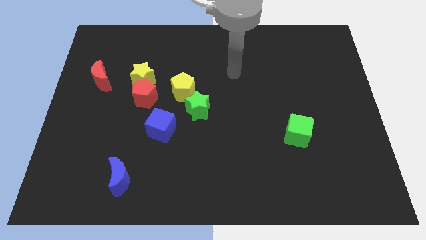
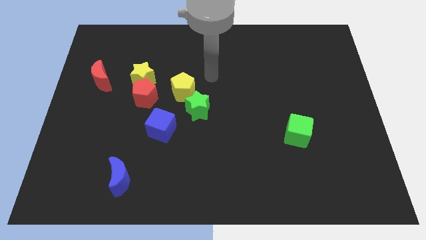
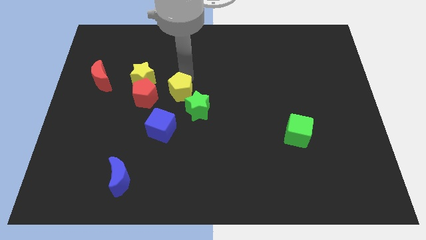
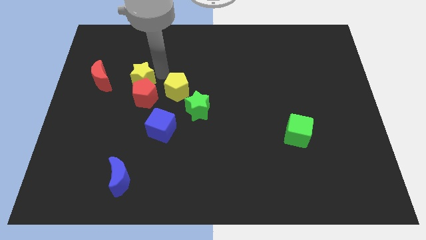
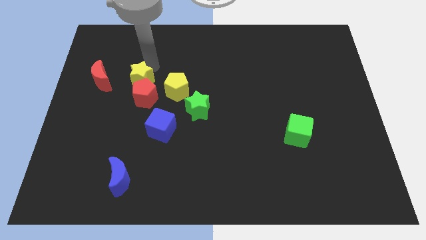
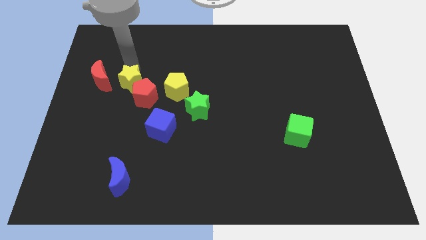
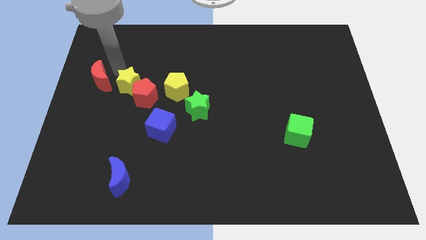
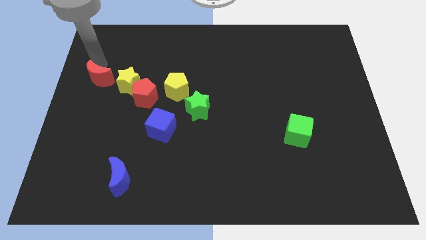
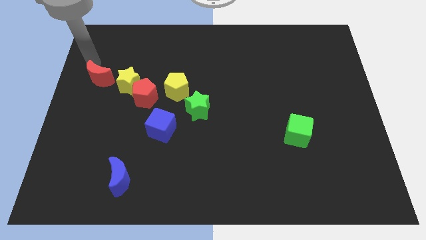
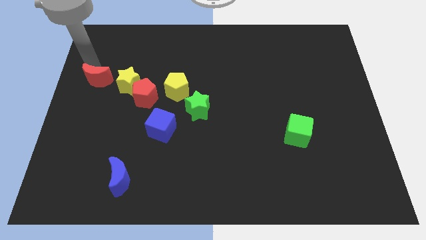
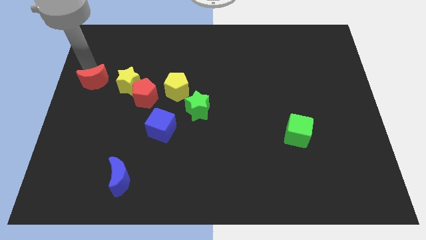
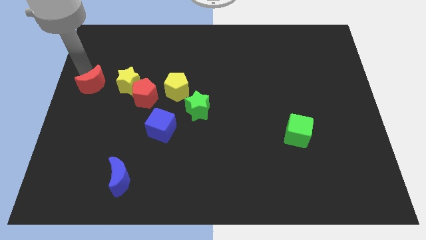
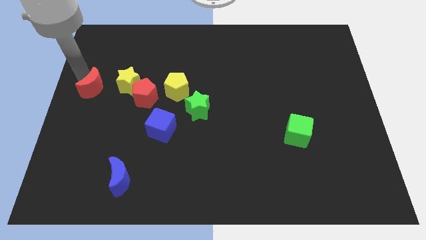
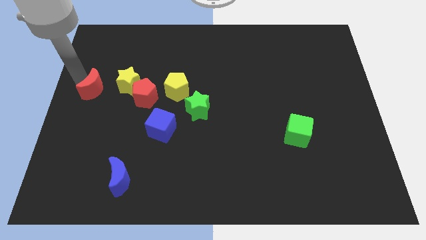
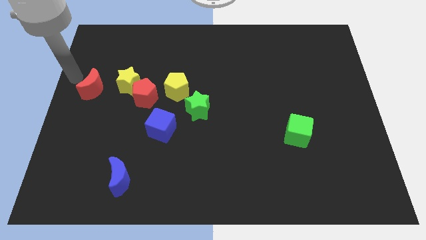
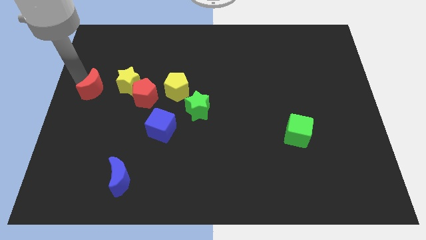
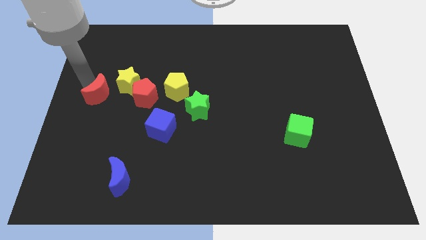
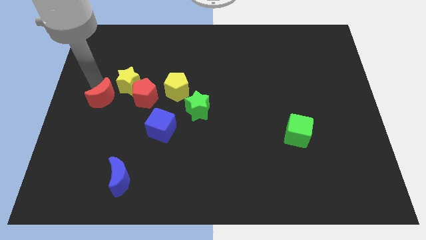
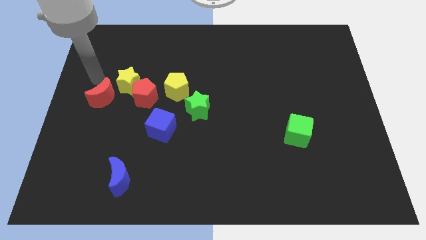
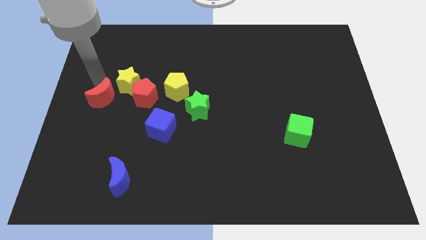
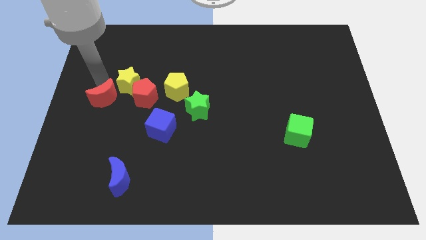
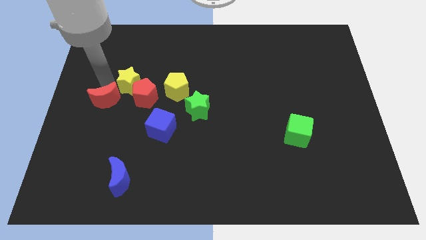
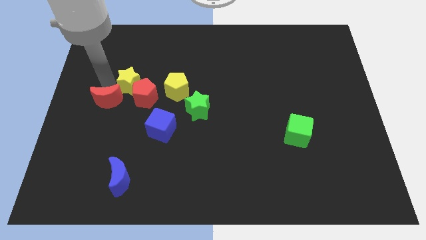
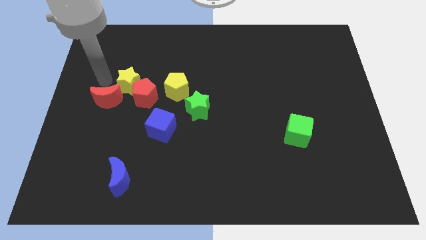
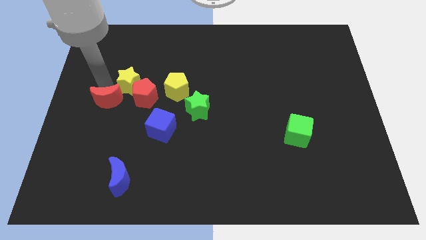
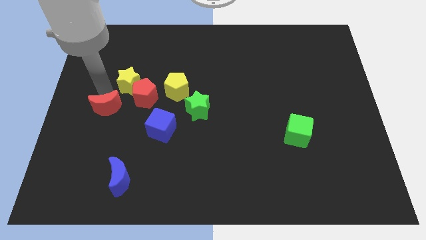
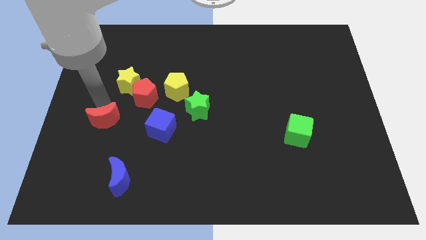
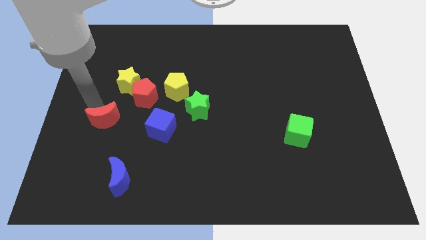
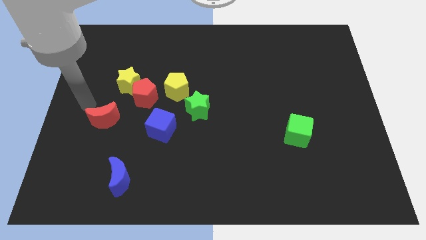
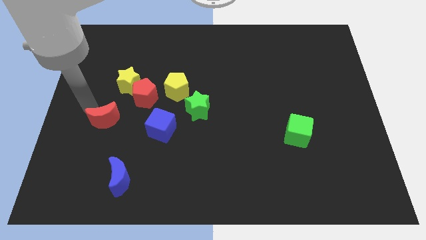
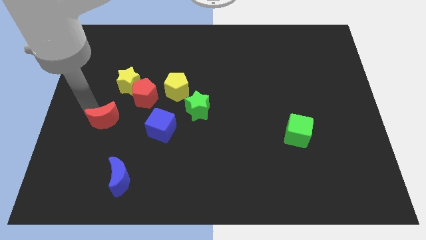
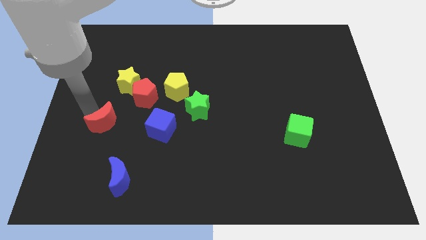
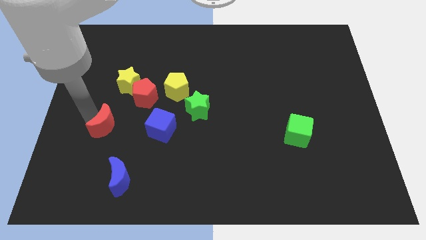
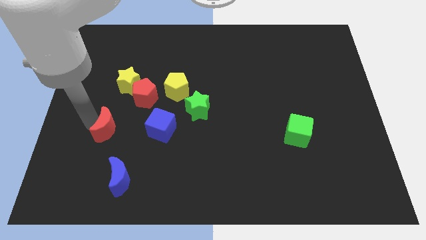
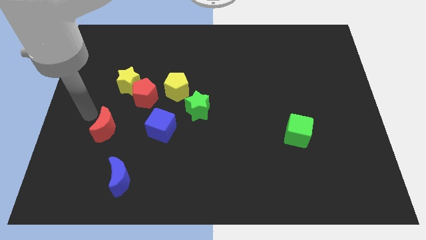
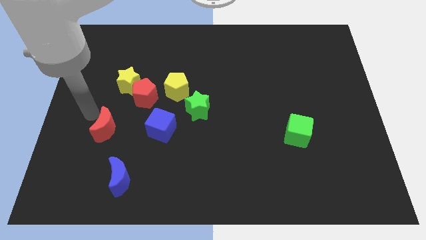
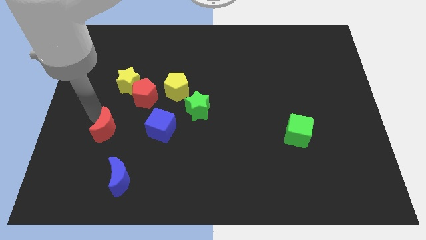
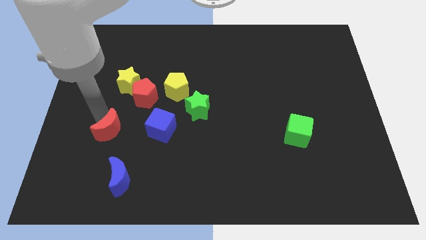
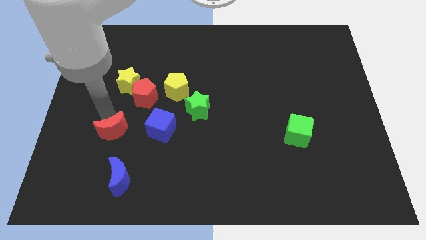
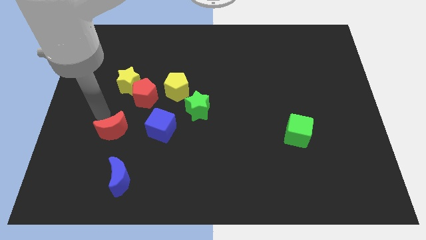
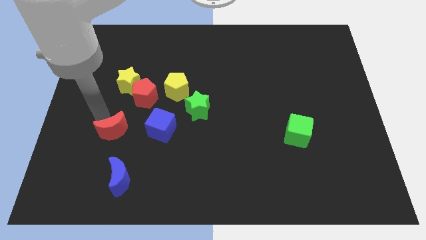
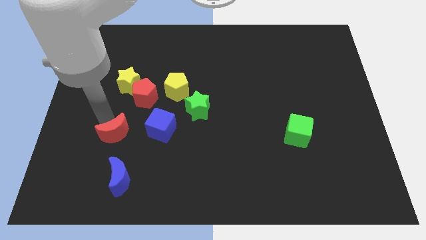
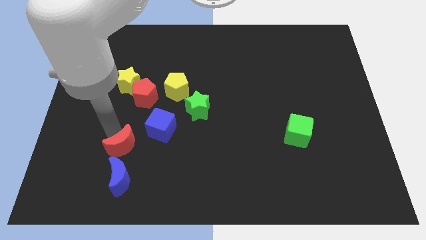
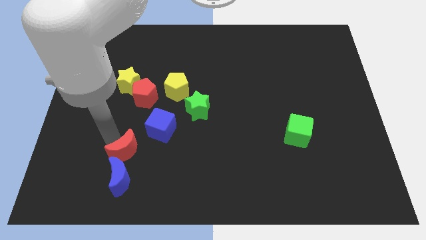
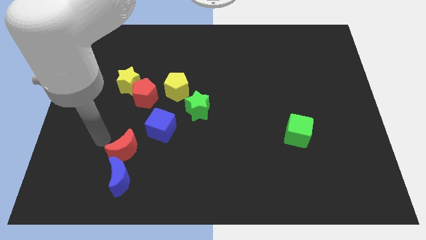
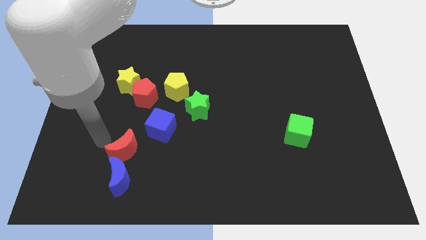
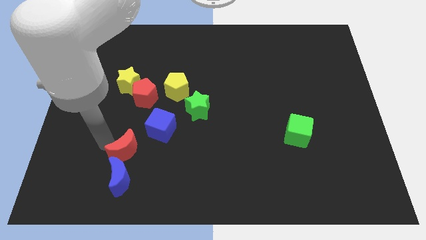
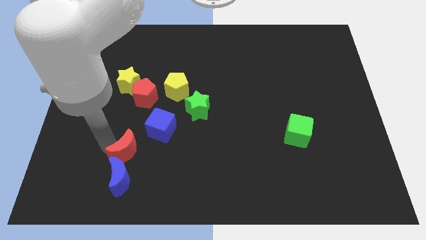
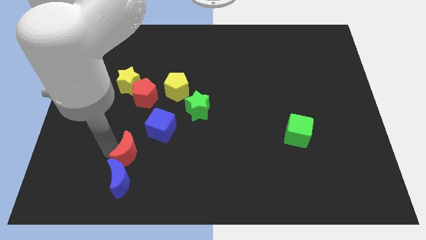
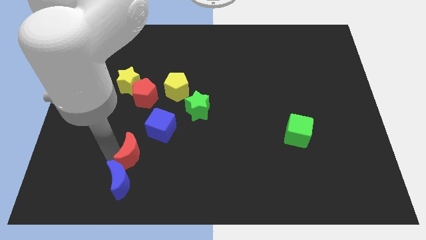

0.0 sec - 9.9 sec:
move the red moon down and then right

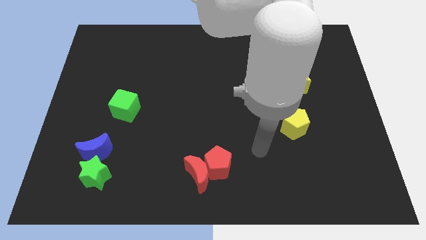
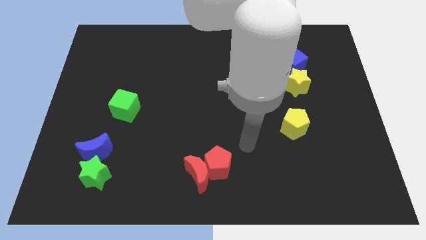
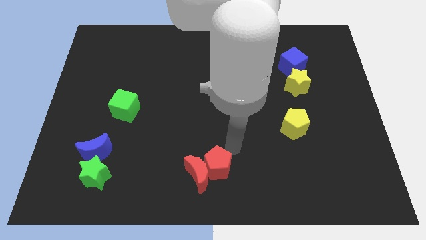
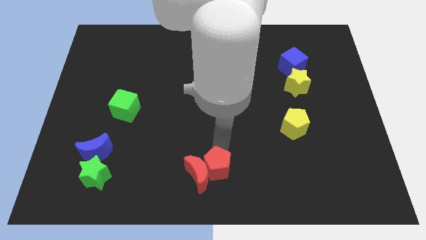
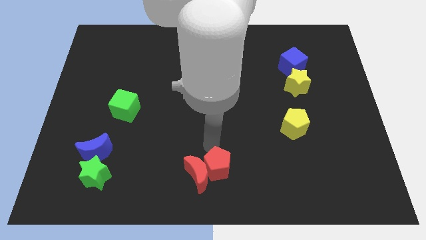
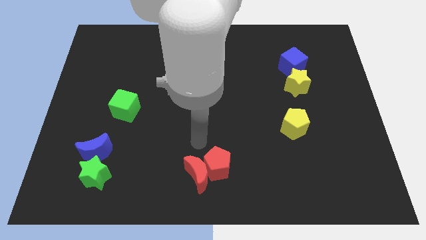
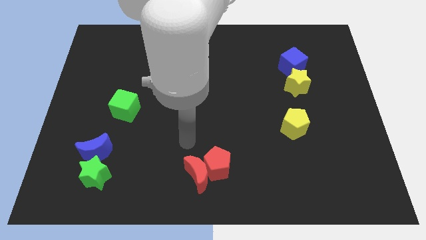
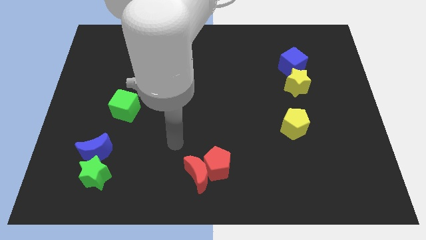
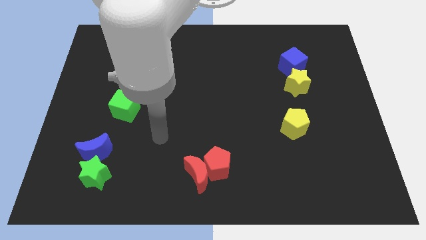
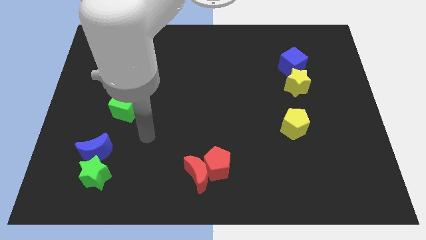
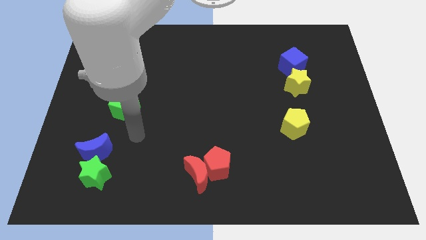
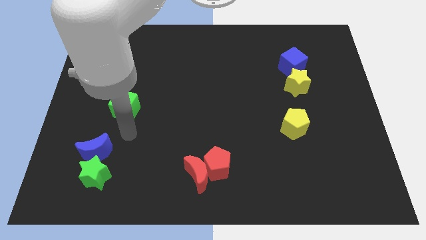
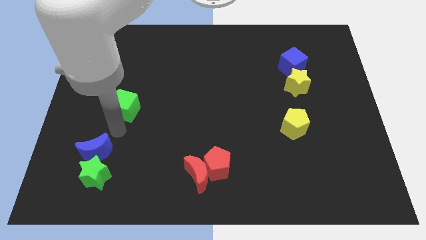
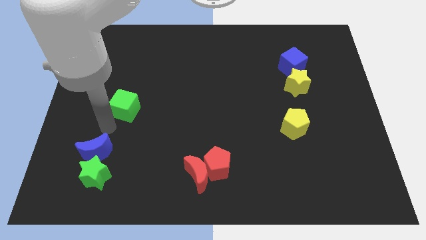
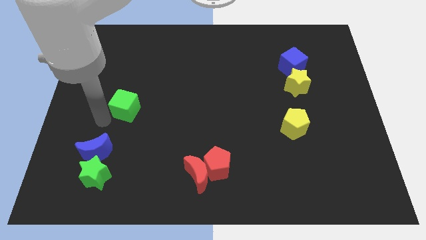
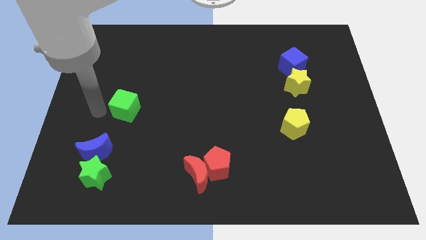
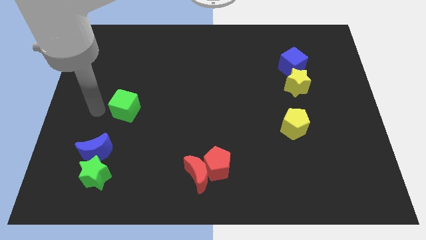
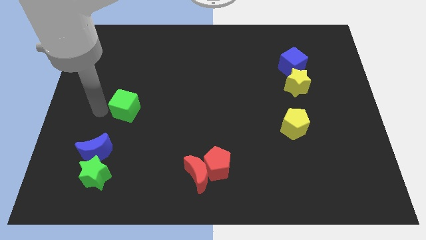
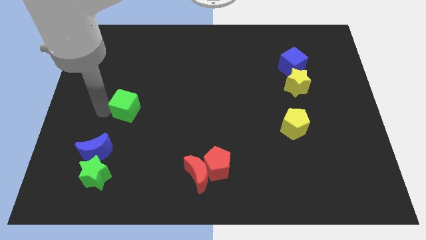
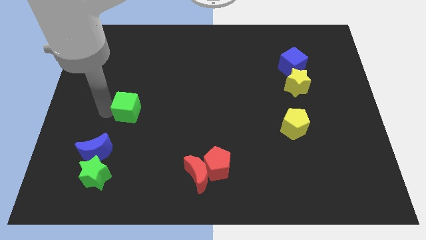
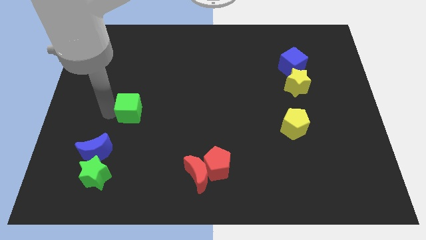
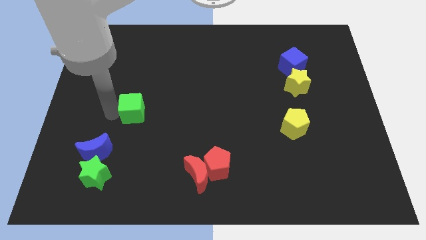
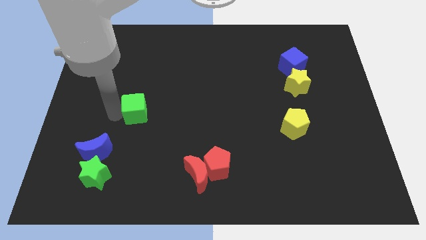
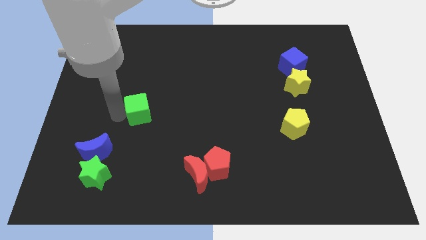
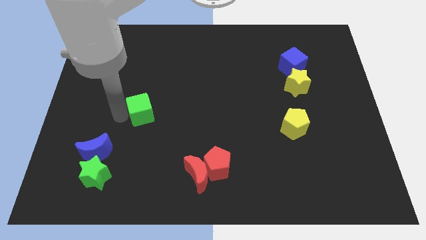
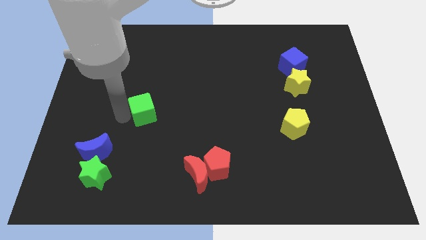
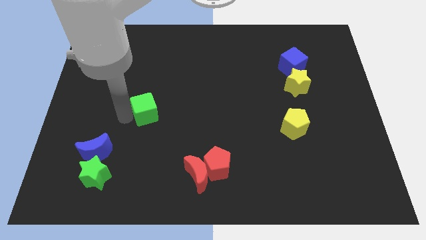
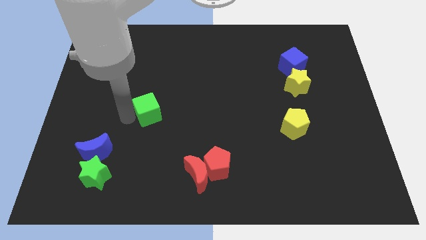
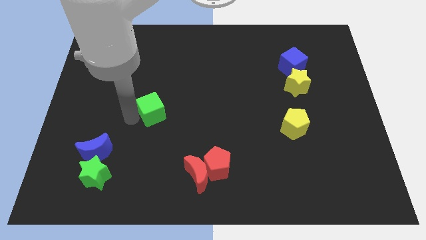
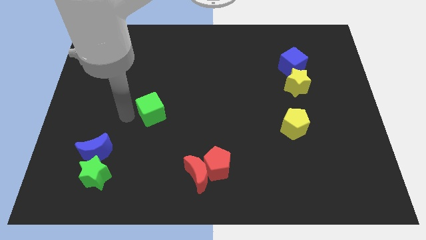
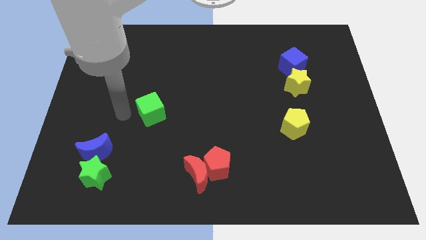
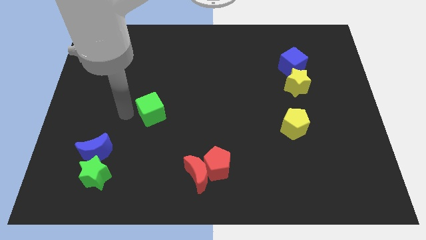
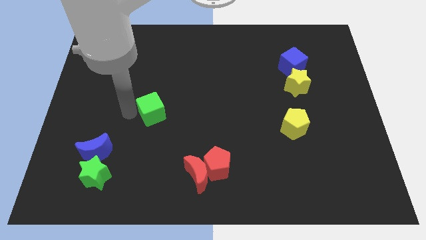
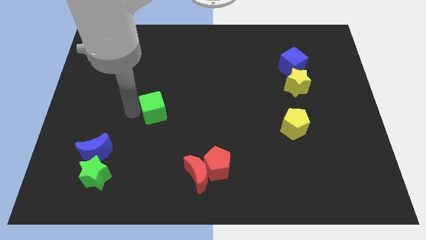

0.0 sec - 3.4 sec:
move the green cube a little bit right
